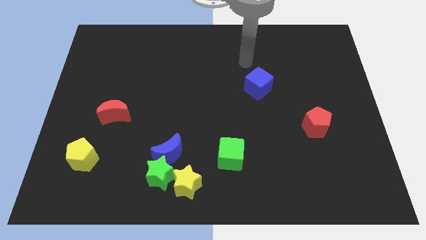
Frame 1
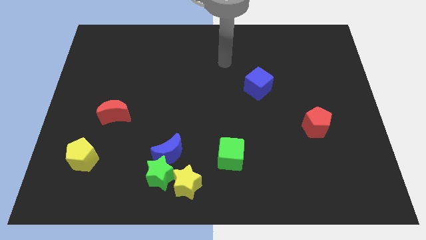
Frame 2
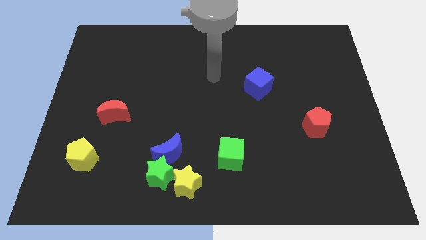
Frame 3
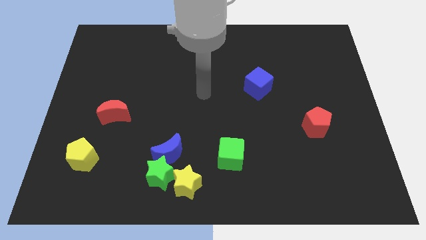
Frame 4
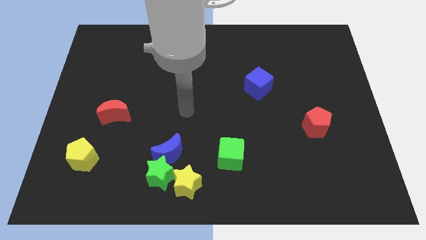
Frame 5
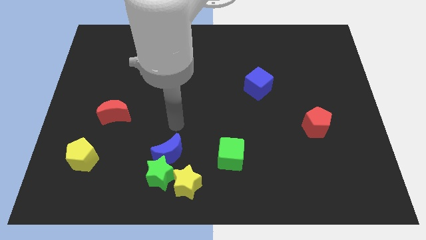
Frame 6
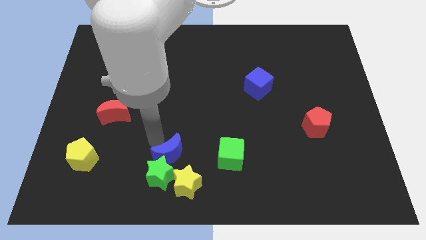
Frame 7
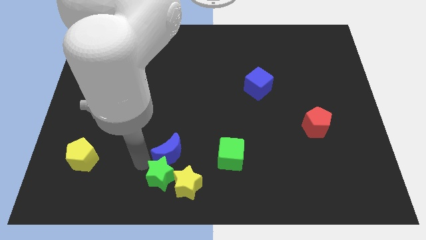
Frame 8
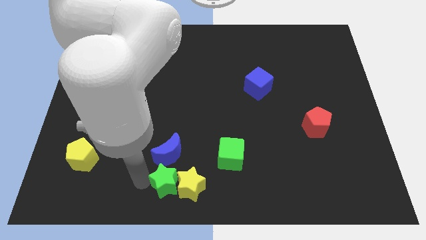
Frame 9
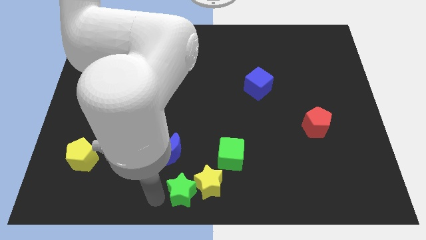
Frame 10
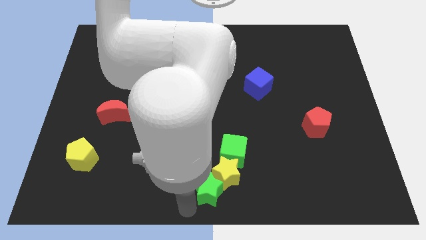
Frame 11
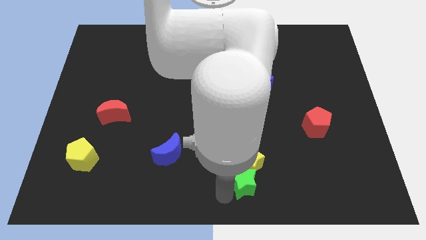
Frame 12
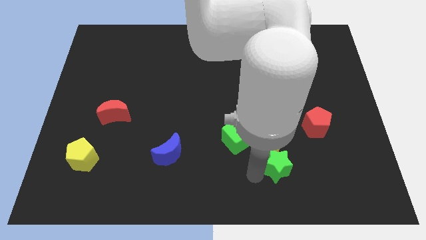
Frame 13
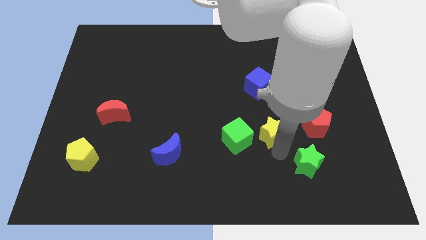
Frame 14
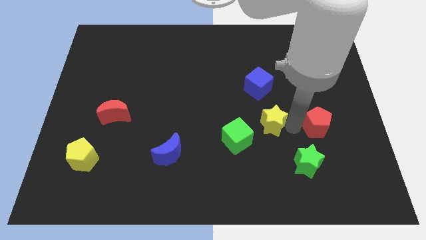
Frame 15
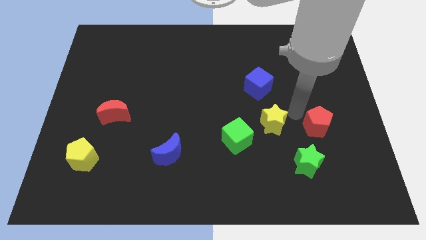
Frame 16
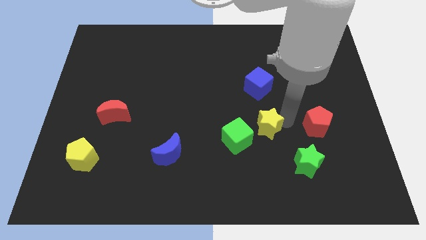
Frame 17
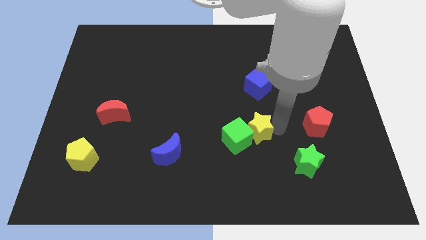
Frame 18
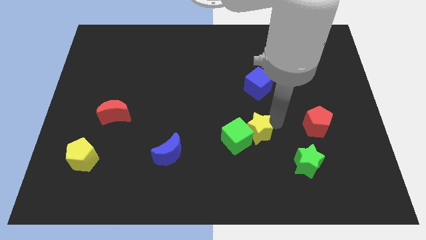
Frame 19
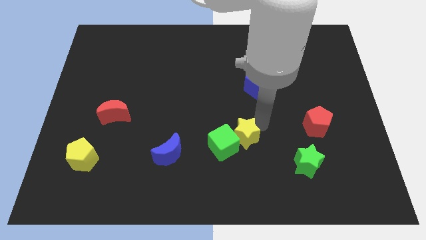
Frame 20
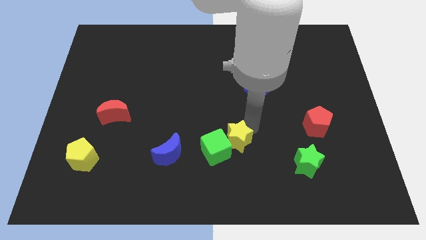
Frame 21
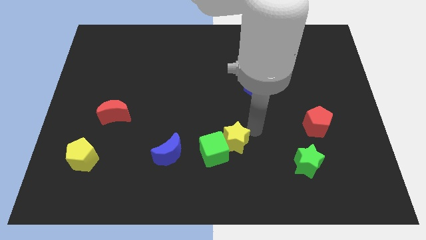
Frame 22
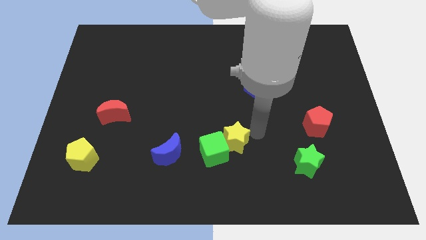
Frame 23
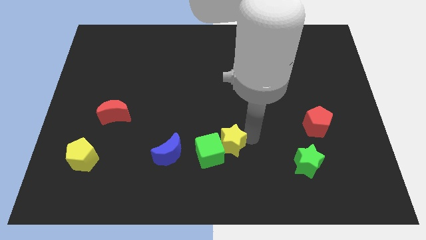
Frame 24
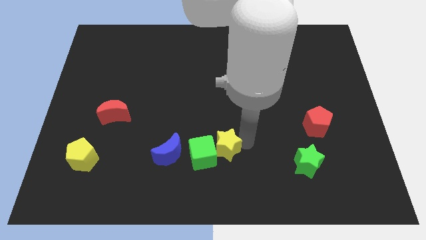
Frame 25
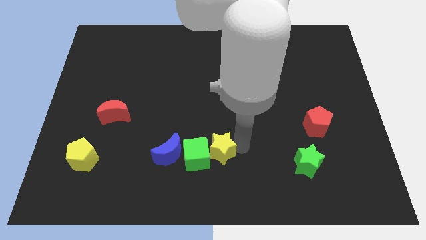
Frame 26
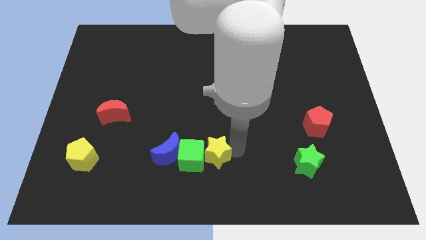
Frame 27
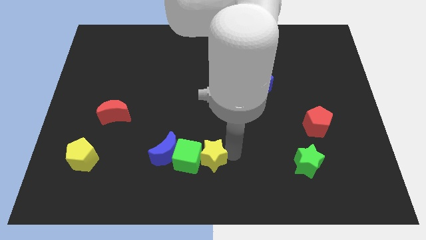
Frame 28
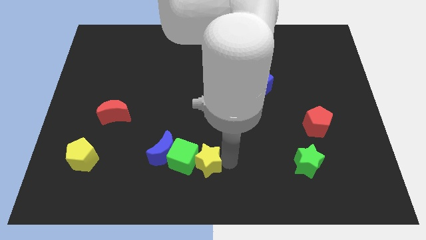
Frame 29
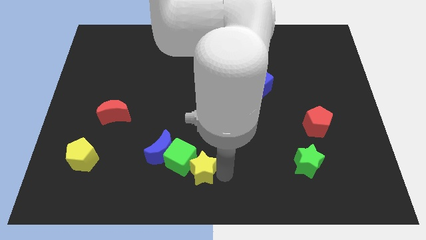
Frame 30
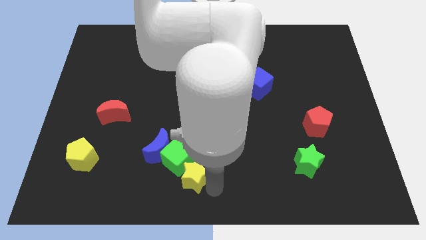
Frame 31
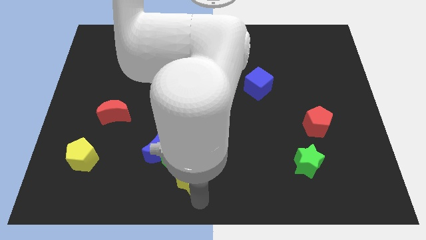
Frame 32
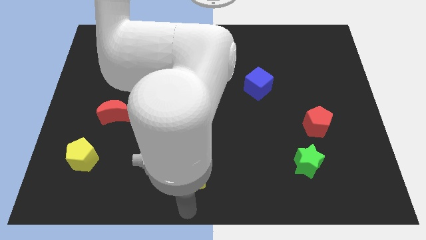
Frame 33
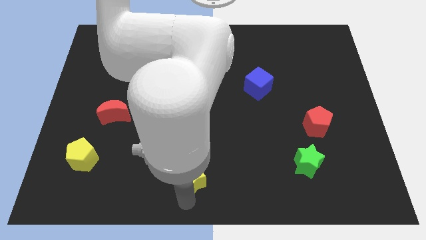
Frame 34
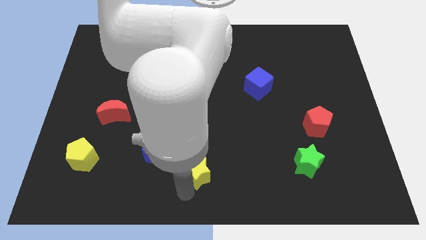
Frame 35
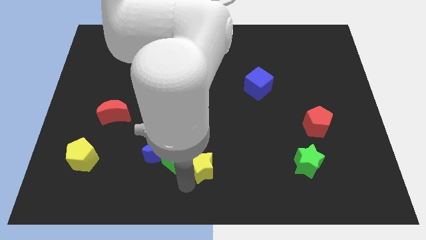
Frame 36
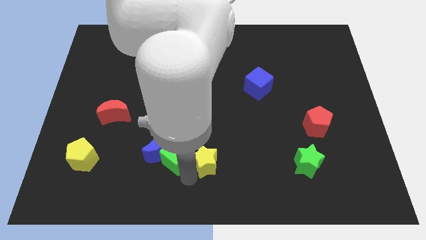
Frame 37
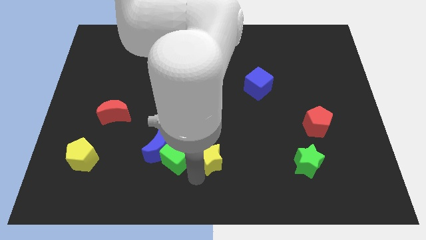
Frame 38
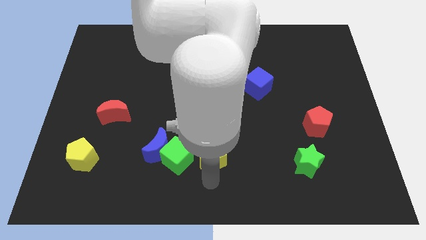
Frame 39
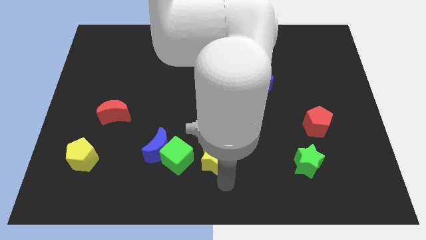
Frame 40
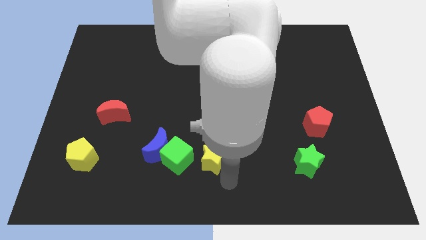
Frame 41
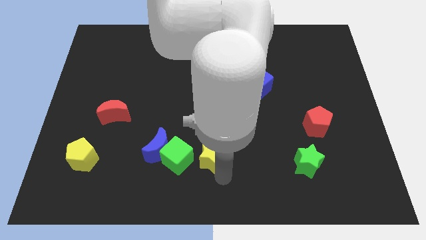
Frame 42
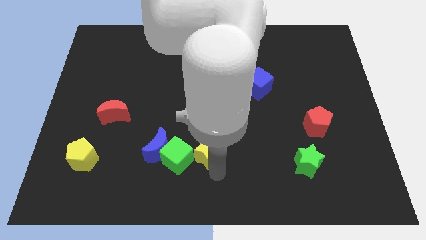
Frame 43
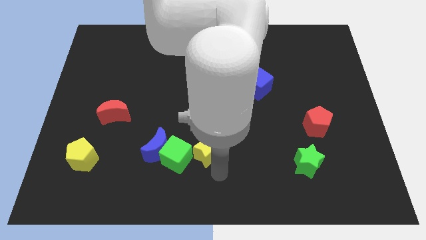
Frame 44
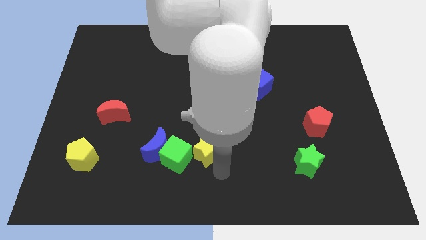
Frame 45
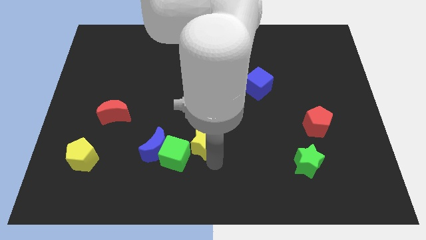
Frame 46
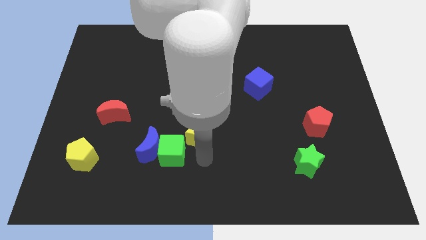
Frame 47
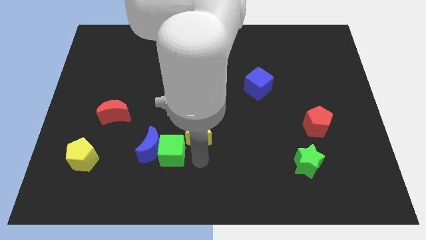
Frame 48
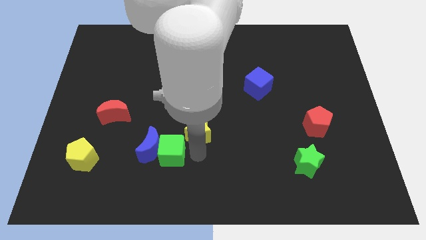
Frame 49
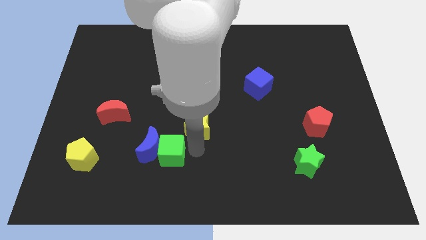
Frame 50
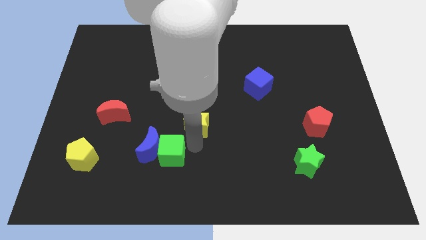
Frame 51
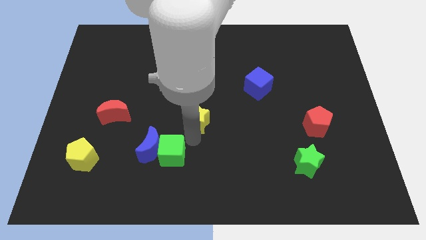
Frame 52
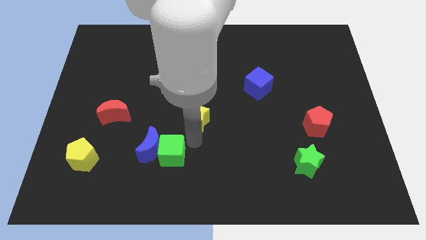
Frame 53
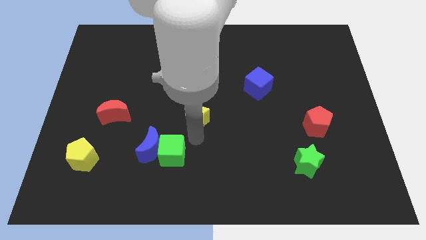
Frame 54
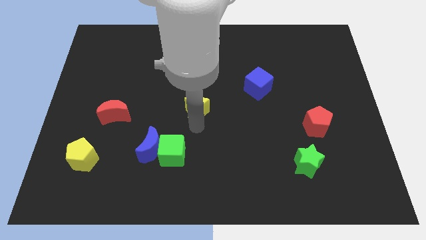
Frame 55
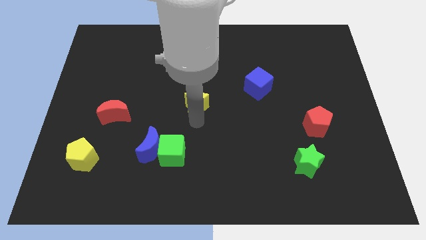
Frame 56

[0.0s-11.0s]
slide the yellow star upwards

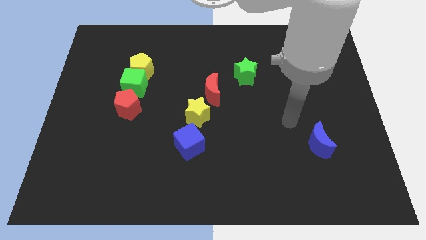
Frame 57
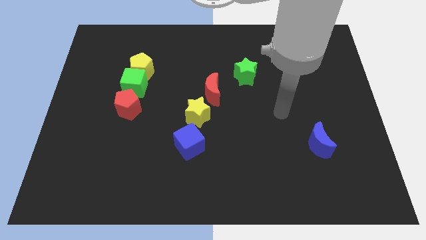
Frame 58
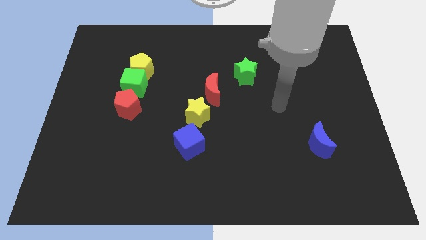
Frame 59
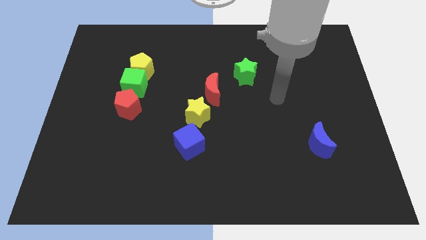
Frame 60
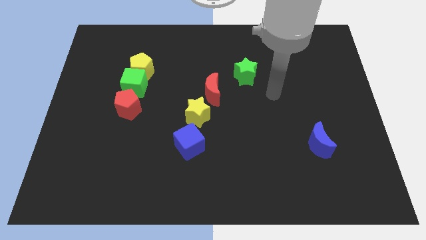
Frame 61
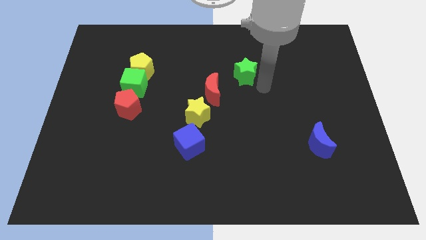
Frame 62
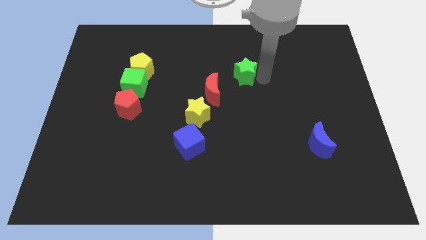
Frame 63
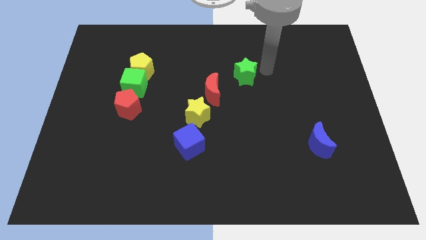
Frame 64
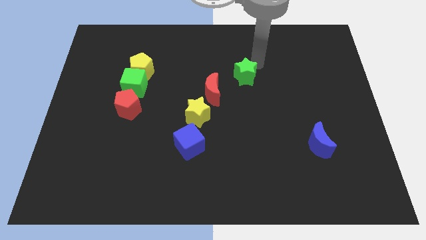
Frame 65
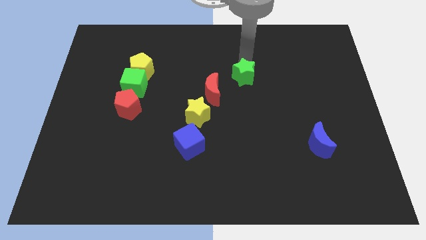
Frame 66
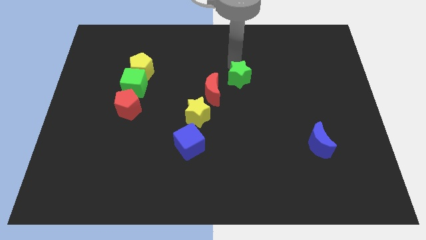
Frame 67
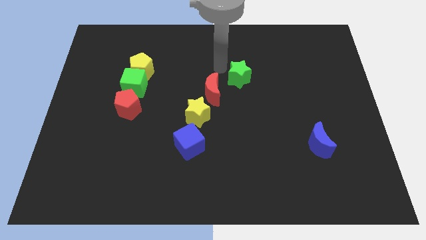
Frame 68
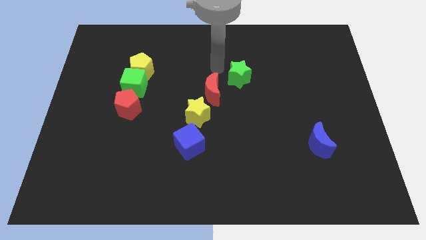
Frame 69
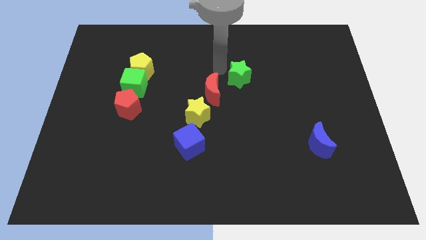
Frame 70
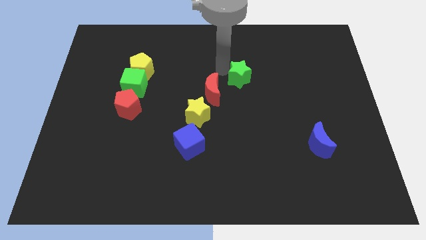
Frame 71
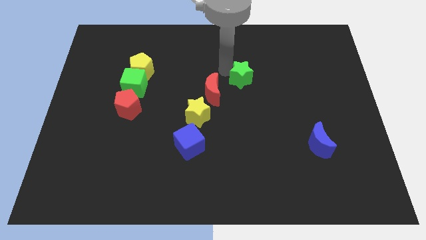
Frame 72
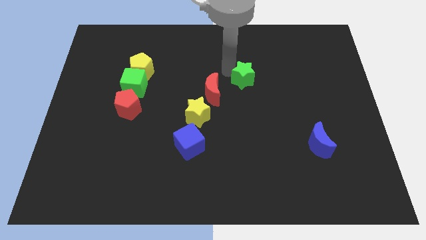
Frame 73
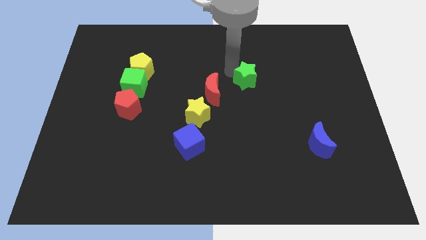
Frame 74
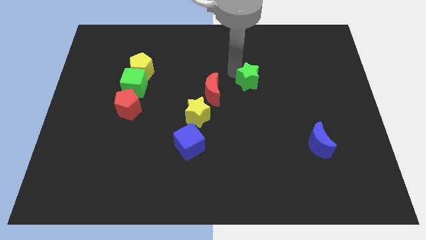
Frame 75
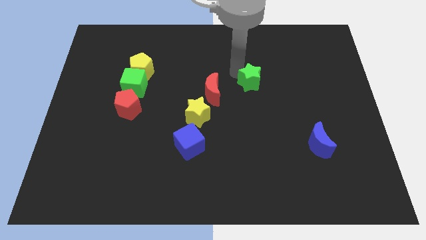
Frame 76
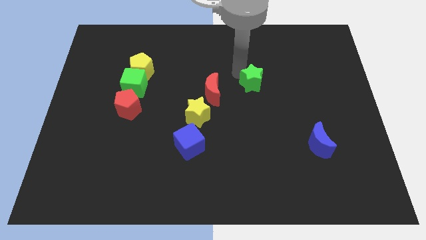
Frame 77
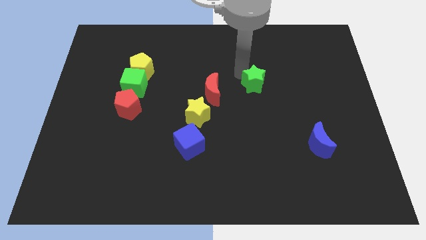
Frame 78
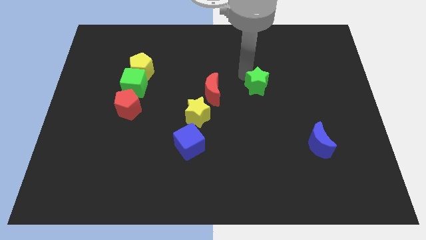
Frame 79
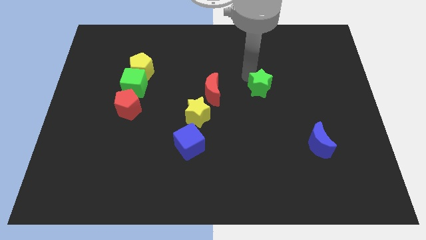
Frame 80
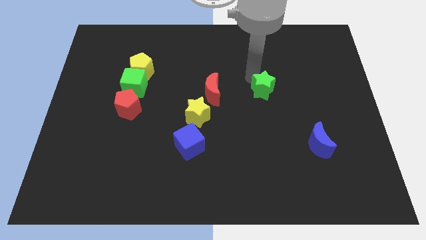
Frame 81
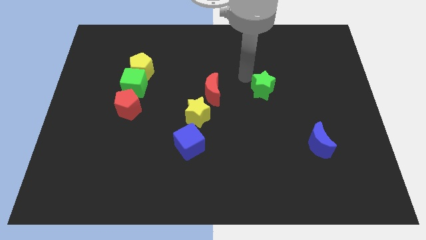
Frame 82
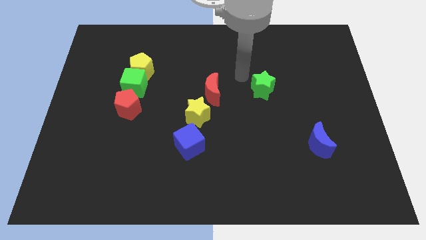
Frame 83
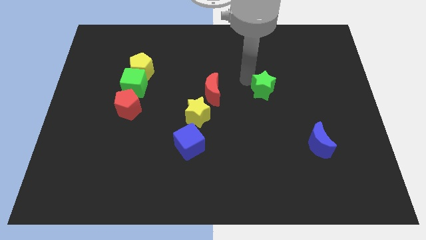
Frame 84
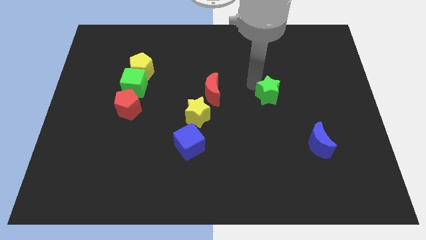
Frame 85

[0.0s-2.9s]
slightly move the green star downwards and then right
